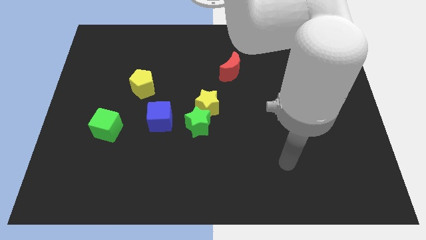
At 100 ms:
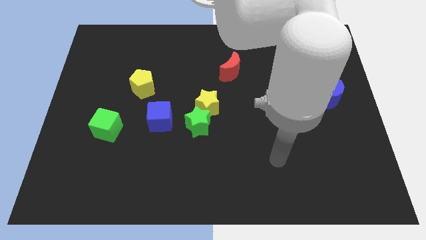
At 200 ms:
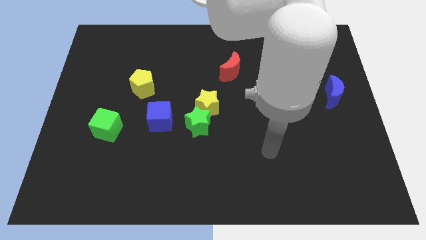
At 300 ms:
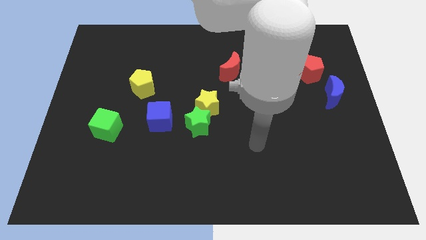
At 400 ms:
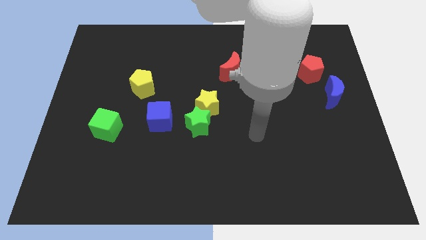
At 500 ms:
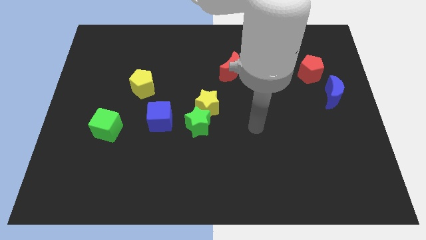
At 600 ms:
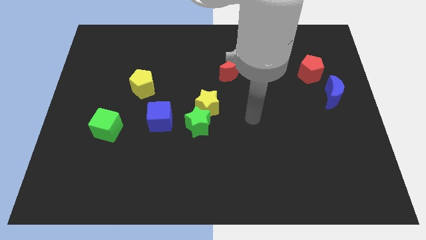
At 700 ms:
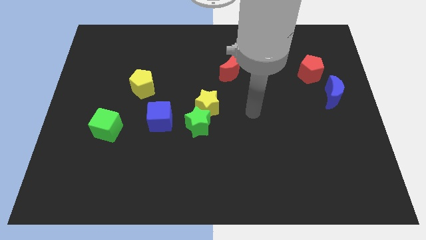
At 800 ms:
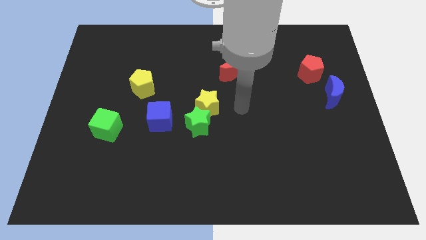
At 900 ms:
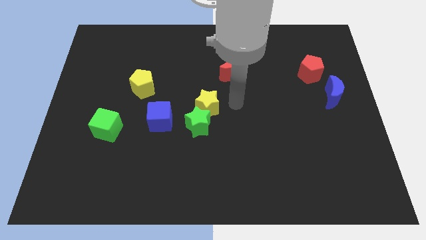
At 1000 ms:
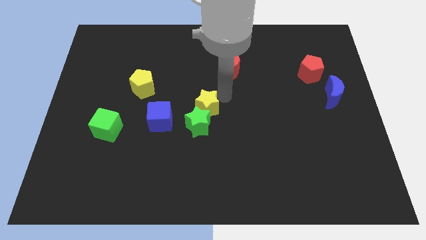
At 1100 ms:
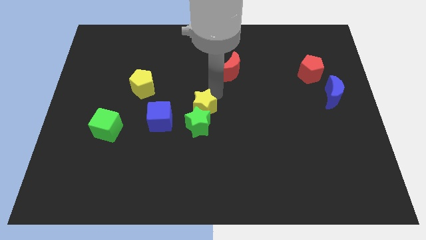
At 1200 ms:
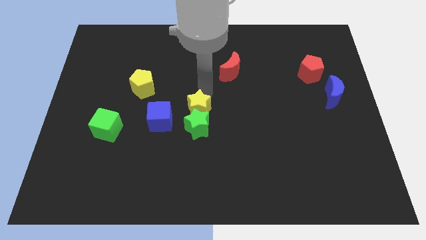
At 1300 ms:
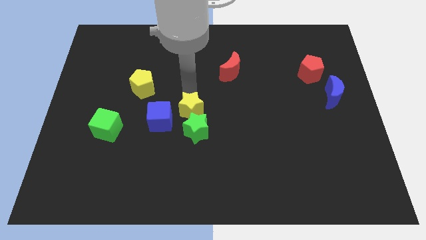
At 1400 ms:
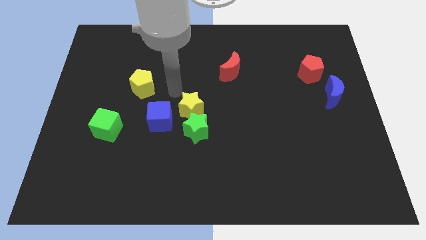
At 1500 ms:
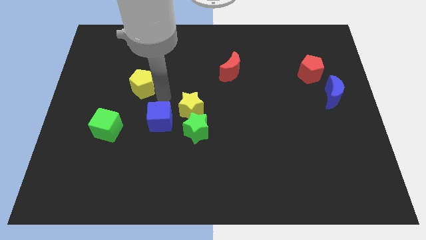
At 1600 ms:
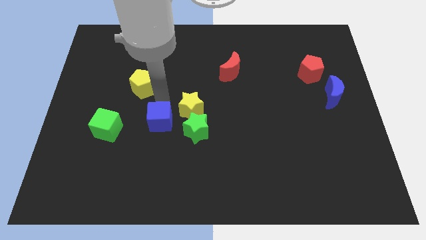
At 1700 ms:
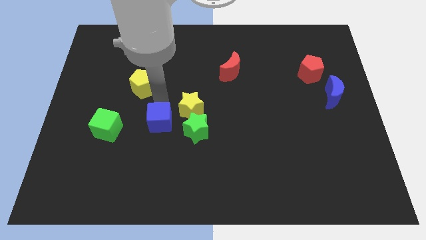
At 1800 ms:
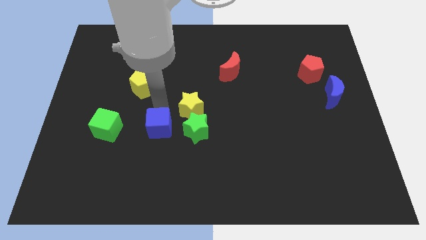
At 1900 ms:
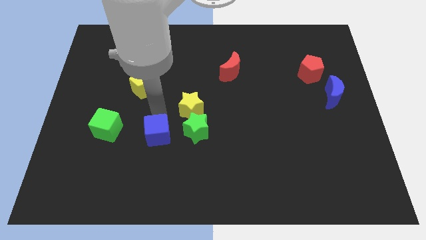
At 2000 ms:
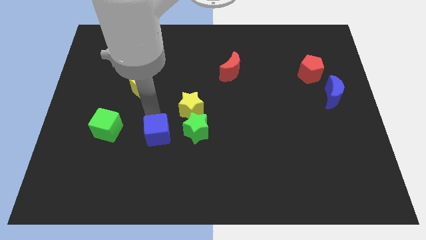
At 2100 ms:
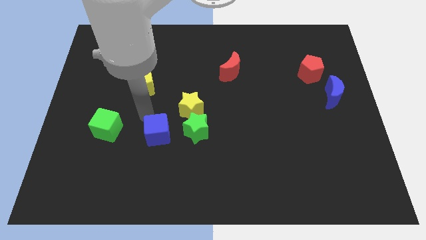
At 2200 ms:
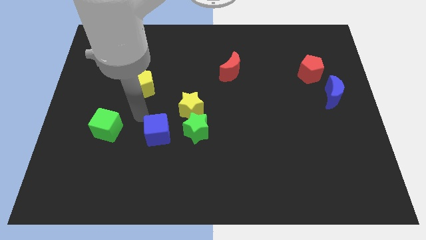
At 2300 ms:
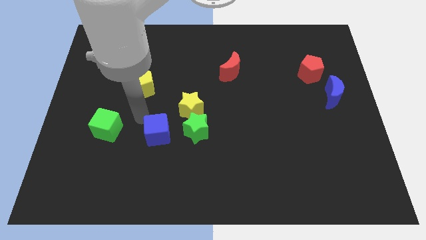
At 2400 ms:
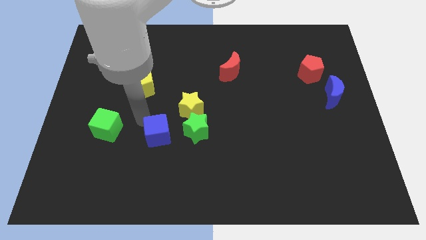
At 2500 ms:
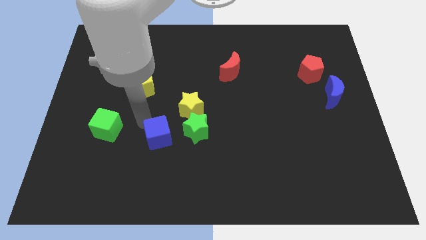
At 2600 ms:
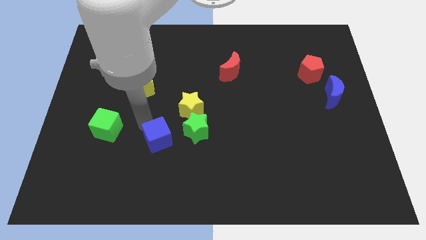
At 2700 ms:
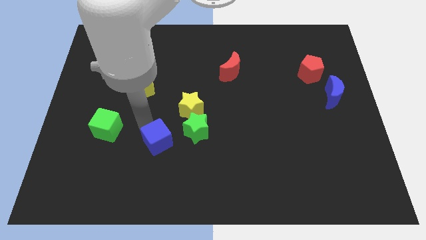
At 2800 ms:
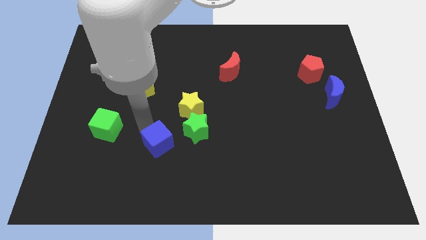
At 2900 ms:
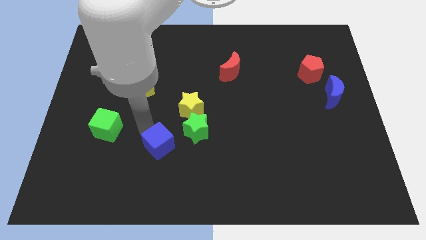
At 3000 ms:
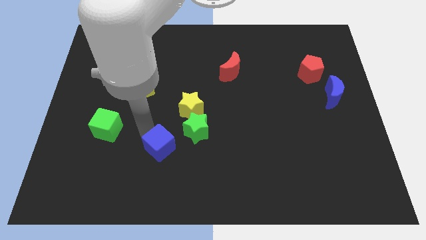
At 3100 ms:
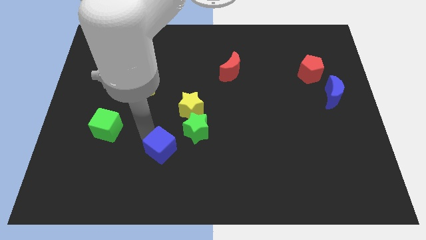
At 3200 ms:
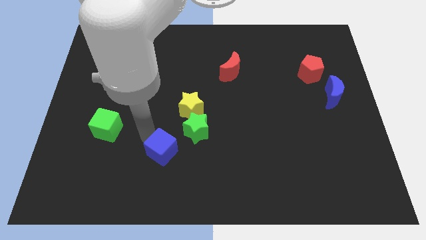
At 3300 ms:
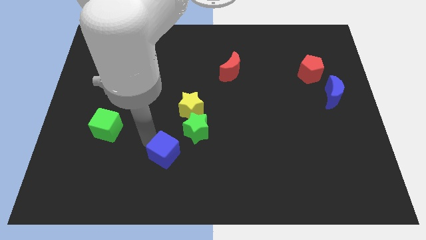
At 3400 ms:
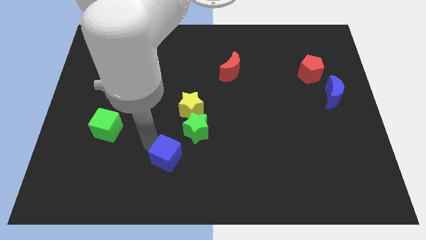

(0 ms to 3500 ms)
slightly slide the blue cube down and to the right

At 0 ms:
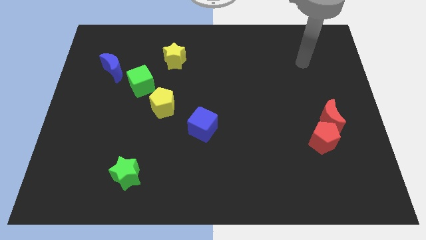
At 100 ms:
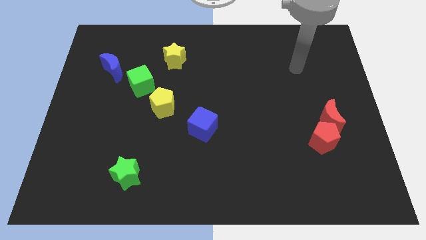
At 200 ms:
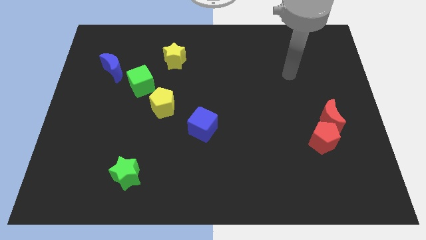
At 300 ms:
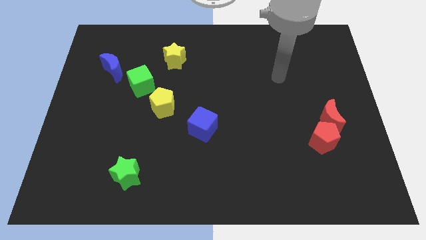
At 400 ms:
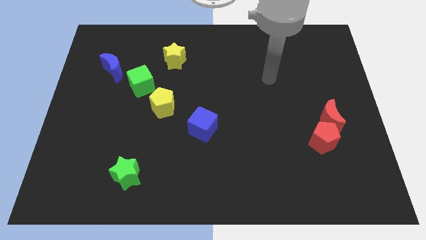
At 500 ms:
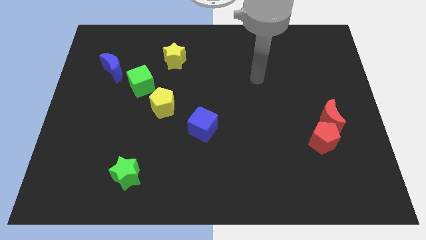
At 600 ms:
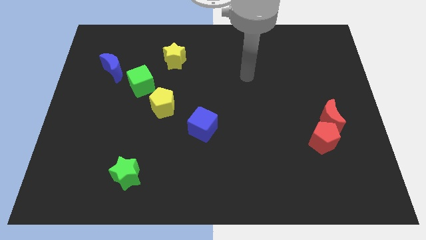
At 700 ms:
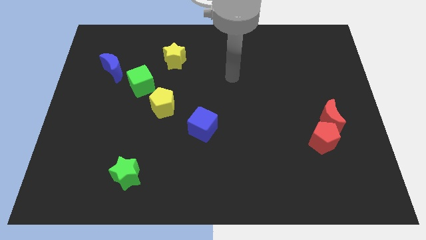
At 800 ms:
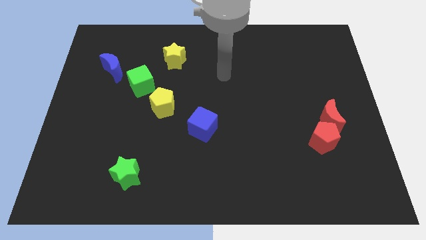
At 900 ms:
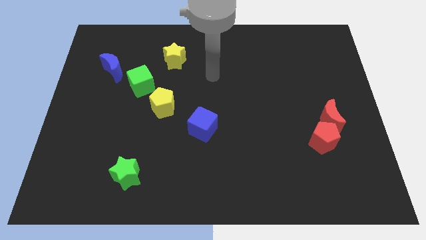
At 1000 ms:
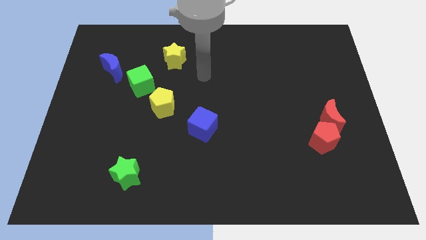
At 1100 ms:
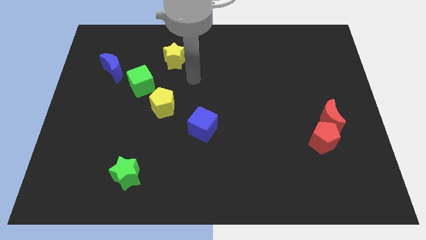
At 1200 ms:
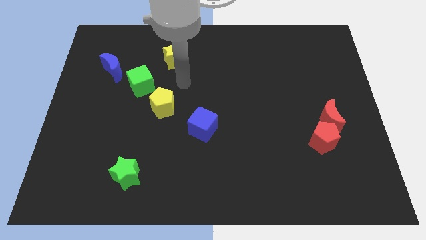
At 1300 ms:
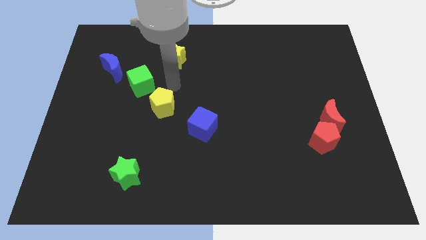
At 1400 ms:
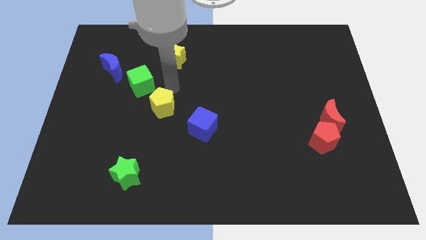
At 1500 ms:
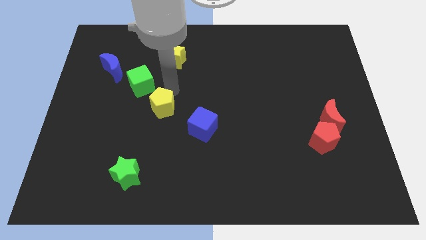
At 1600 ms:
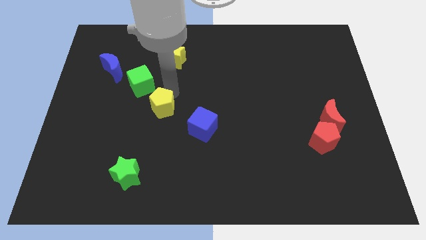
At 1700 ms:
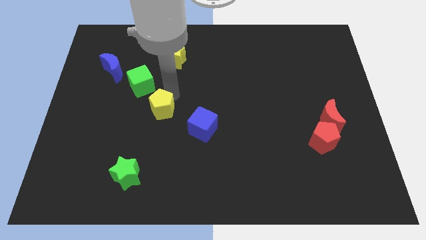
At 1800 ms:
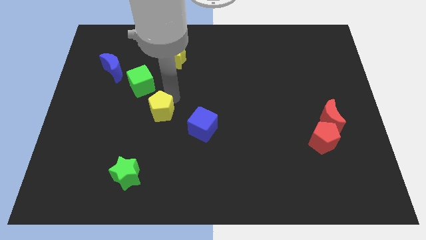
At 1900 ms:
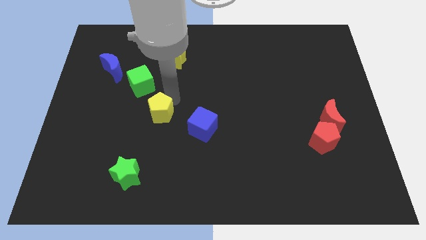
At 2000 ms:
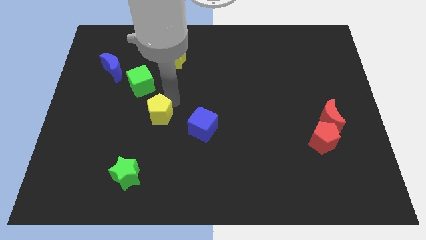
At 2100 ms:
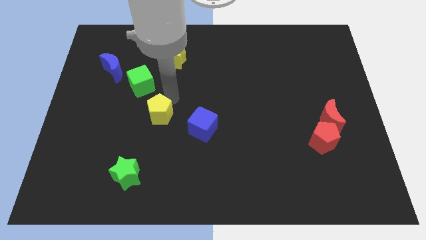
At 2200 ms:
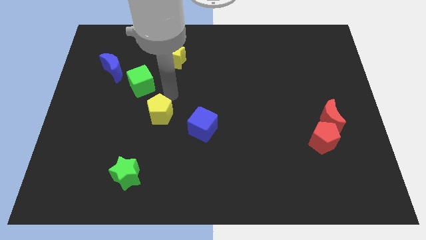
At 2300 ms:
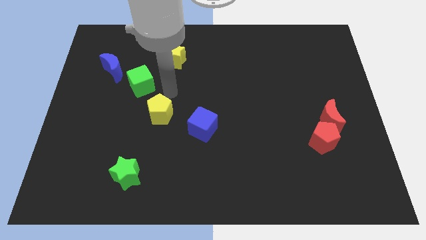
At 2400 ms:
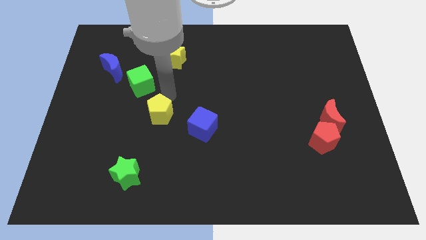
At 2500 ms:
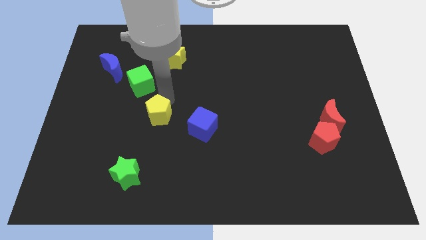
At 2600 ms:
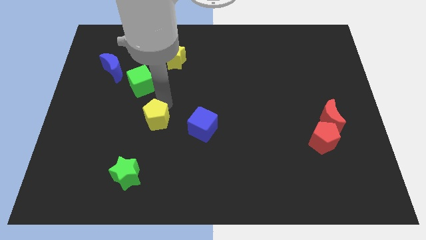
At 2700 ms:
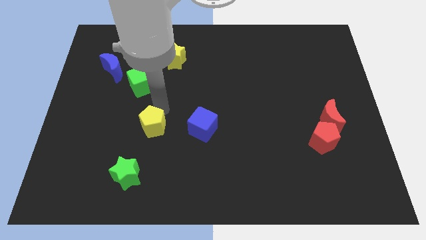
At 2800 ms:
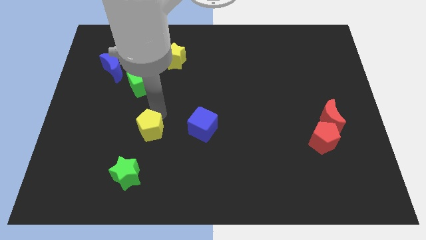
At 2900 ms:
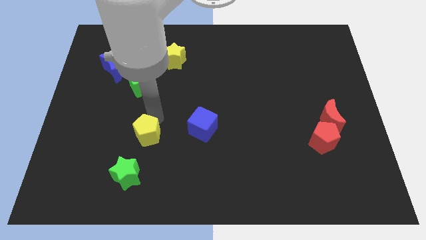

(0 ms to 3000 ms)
slightly move the yellow pentagon down

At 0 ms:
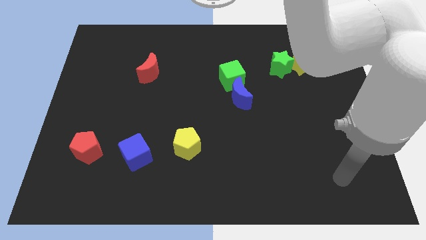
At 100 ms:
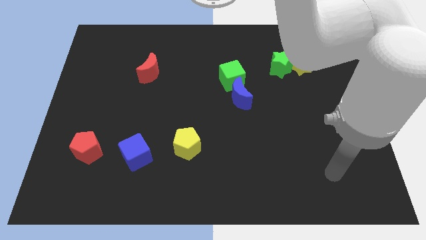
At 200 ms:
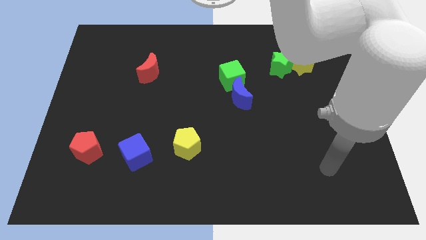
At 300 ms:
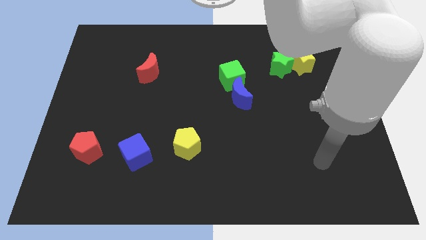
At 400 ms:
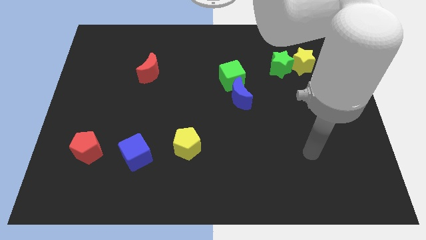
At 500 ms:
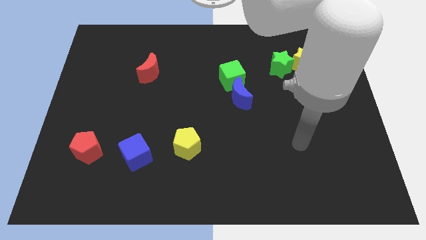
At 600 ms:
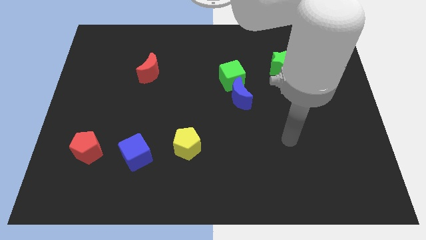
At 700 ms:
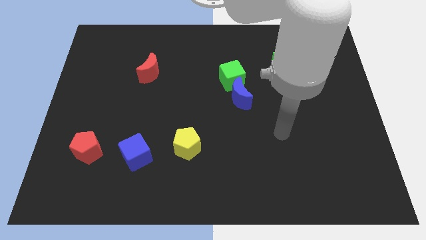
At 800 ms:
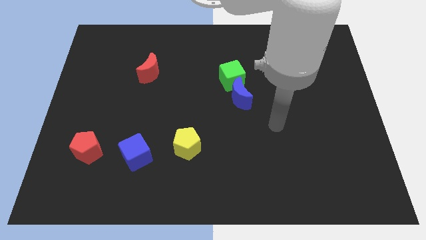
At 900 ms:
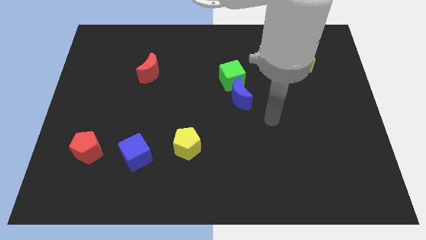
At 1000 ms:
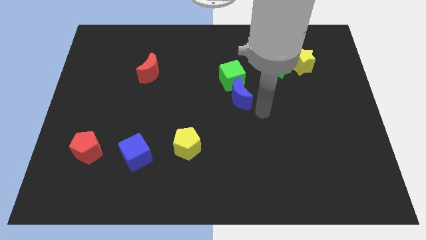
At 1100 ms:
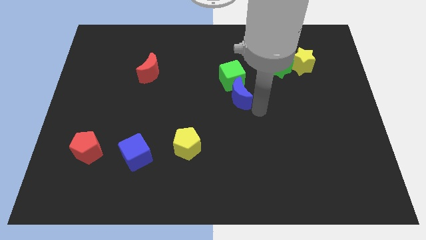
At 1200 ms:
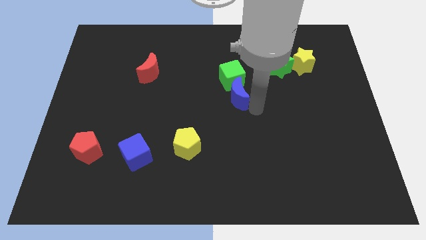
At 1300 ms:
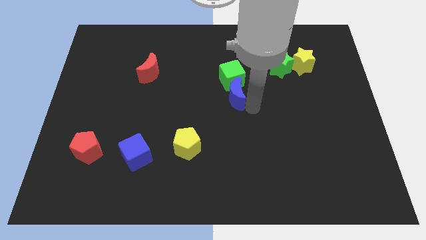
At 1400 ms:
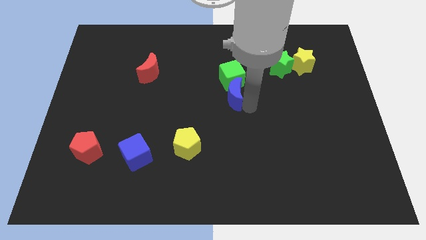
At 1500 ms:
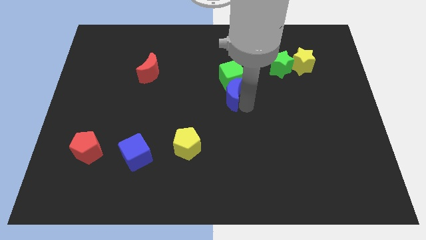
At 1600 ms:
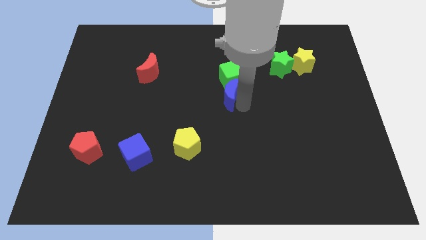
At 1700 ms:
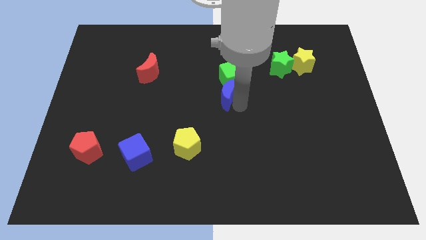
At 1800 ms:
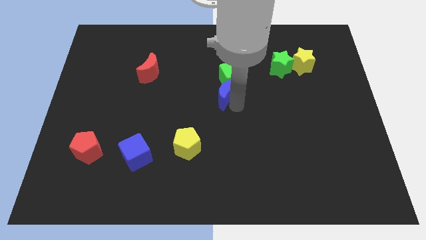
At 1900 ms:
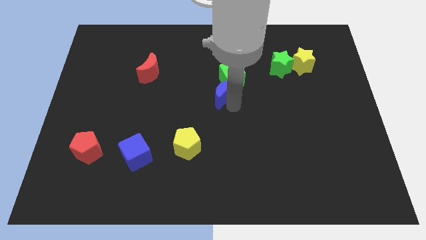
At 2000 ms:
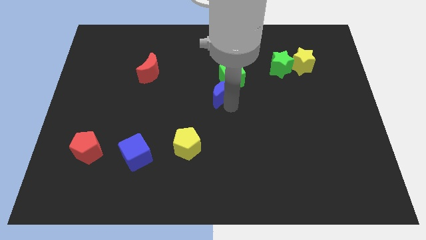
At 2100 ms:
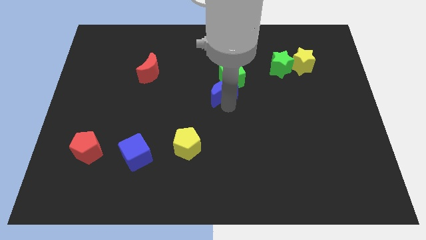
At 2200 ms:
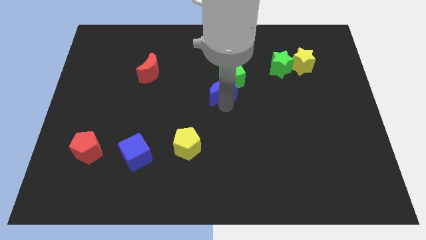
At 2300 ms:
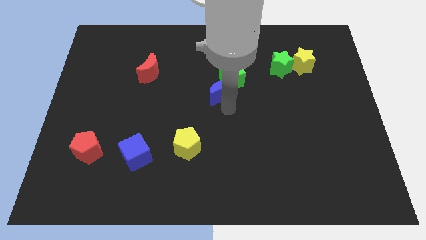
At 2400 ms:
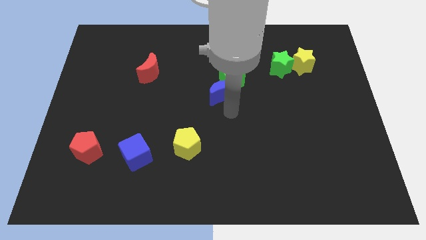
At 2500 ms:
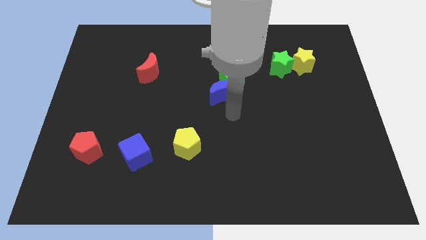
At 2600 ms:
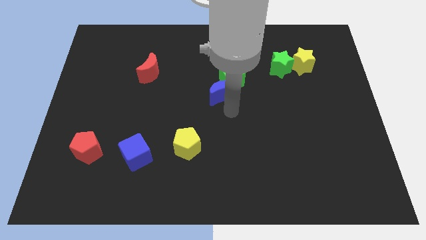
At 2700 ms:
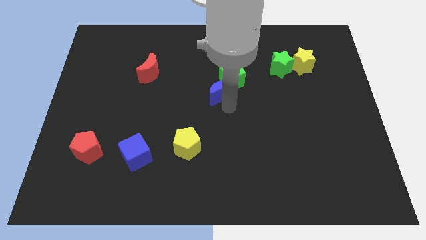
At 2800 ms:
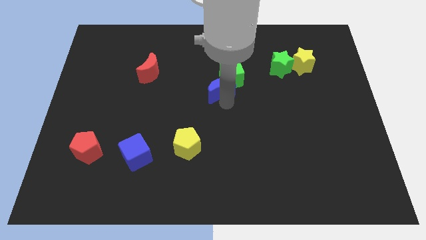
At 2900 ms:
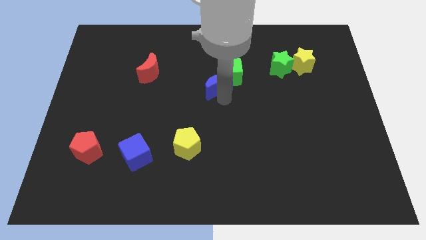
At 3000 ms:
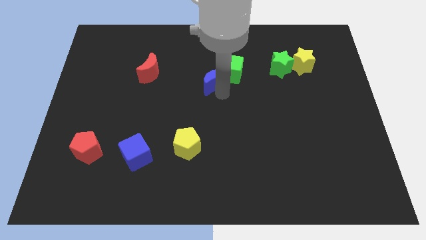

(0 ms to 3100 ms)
move the blue moon diagonally up and left a little bit
